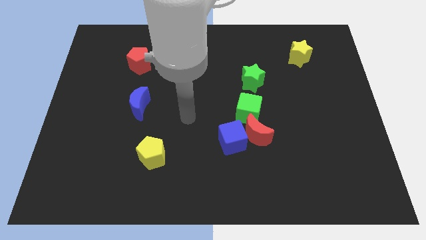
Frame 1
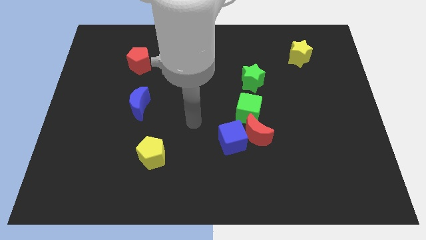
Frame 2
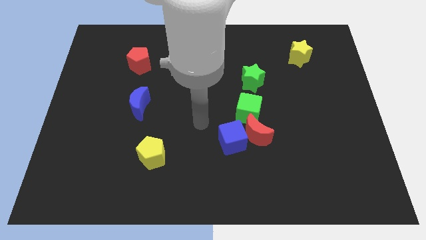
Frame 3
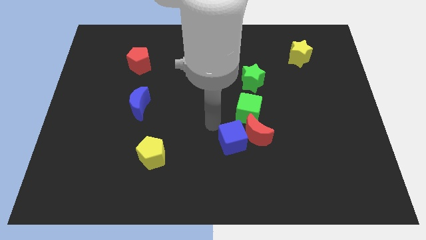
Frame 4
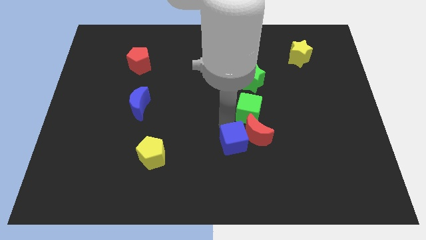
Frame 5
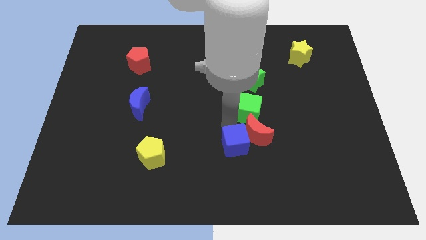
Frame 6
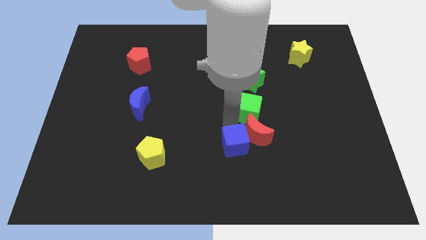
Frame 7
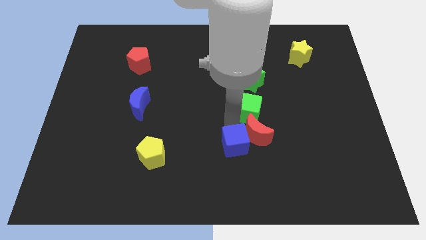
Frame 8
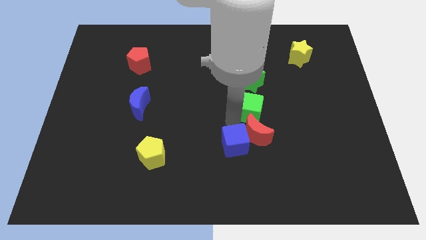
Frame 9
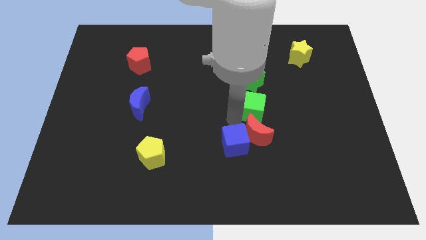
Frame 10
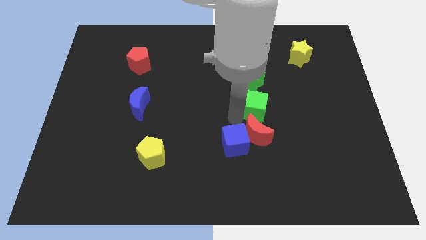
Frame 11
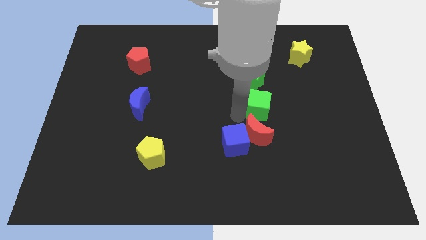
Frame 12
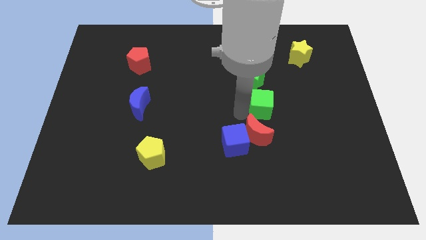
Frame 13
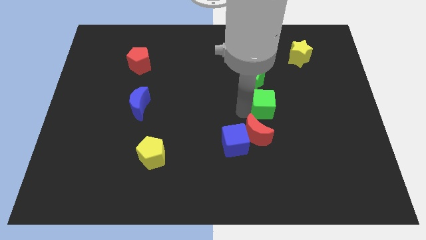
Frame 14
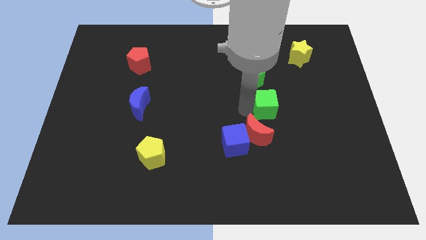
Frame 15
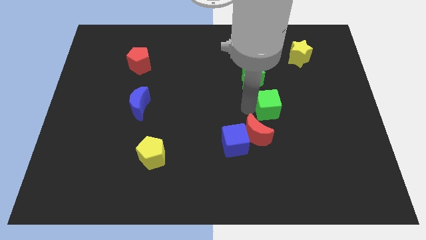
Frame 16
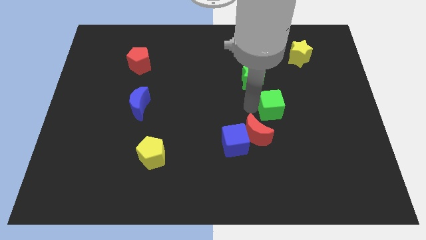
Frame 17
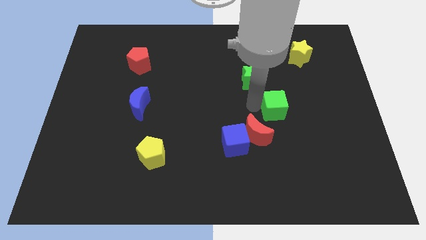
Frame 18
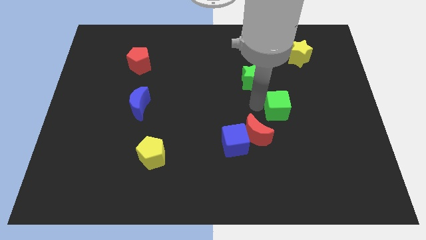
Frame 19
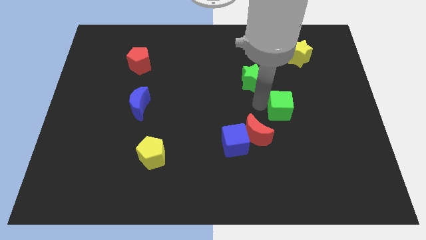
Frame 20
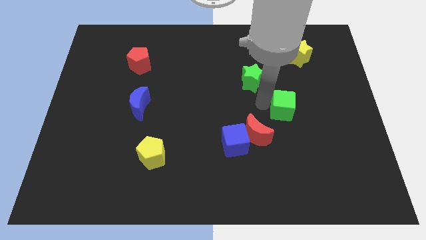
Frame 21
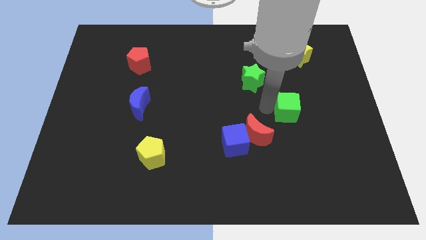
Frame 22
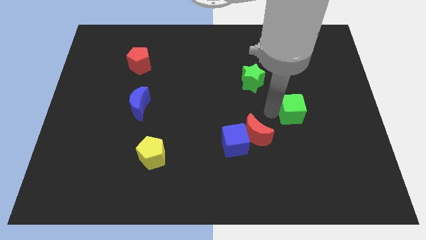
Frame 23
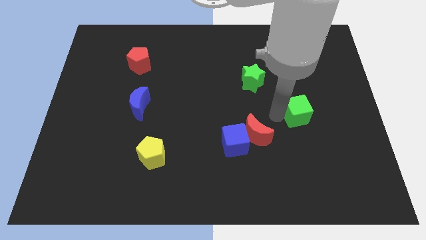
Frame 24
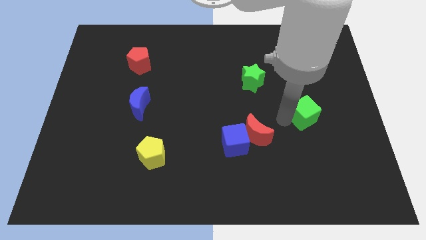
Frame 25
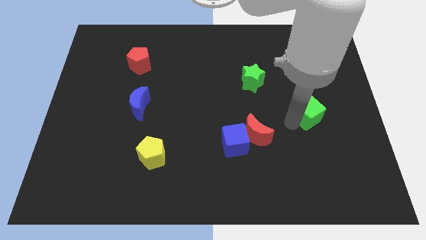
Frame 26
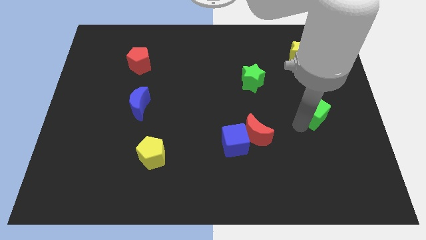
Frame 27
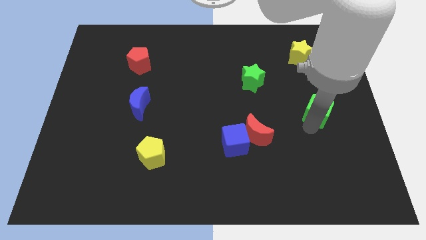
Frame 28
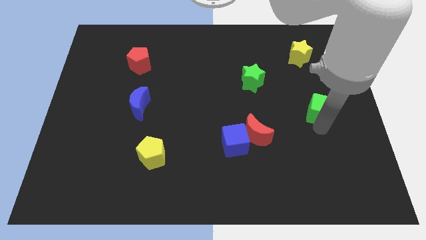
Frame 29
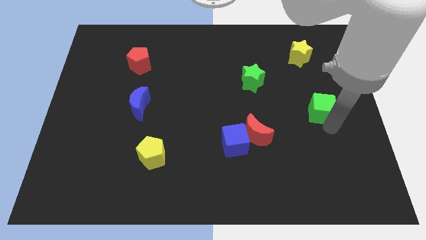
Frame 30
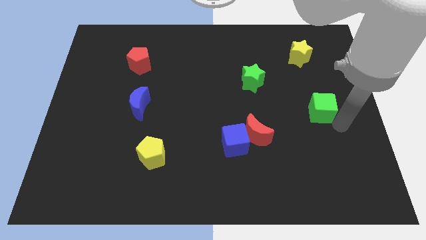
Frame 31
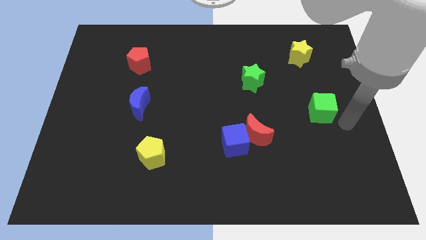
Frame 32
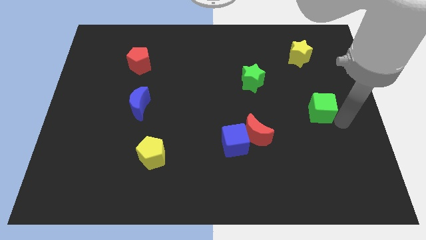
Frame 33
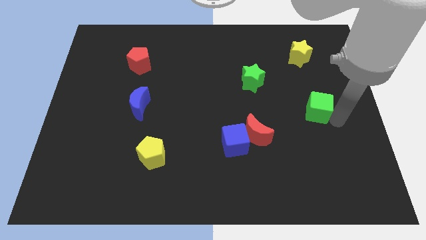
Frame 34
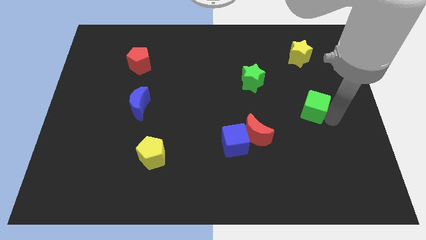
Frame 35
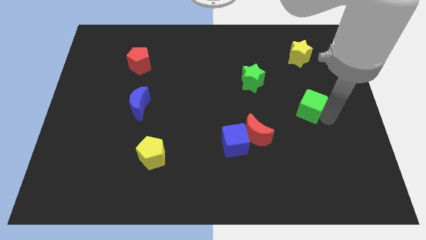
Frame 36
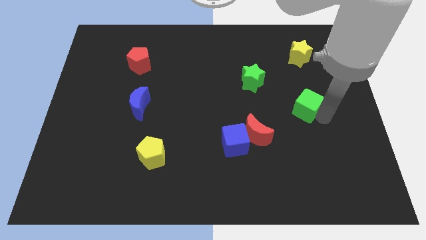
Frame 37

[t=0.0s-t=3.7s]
push the green cube diagonally up and to the right somewhat

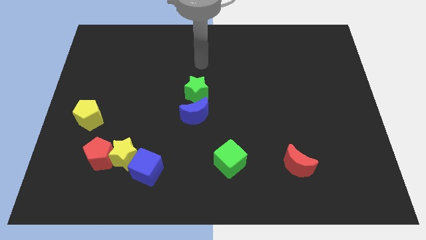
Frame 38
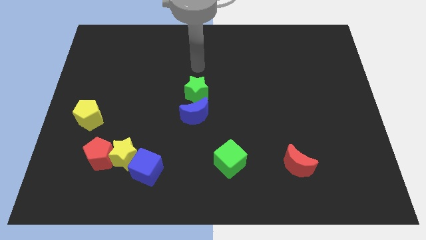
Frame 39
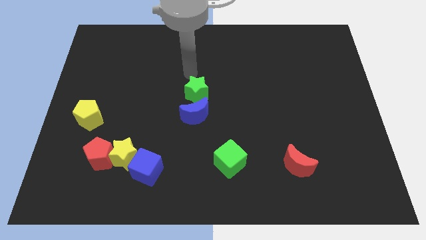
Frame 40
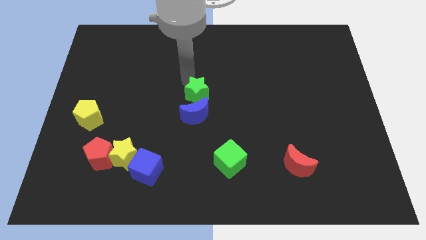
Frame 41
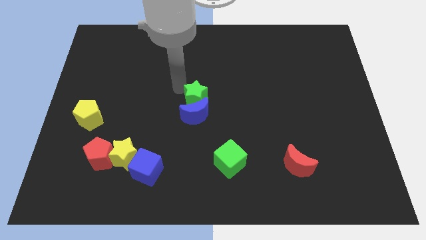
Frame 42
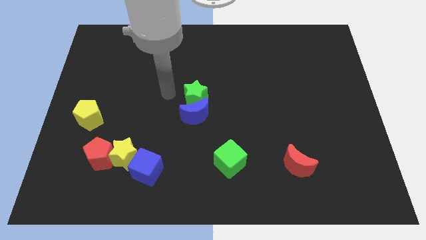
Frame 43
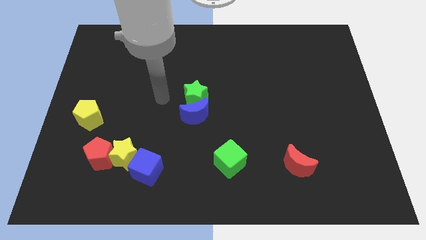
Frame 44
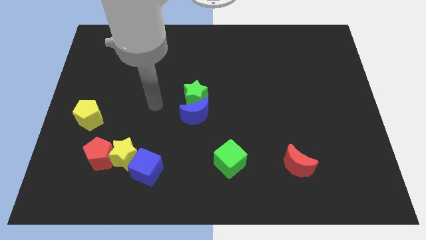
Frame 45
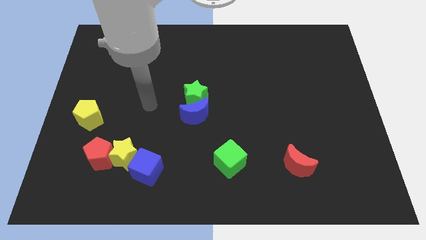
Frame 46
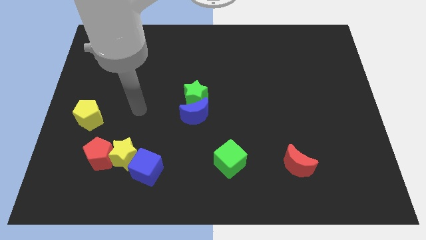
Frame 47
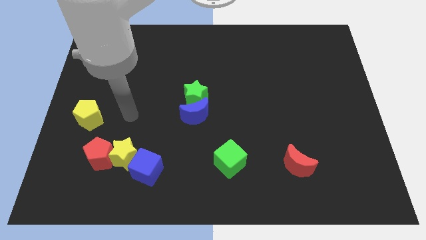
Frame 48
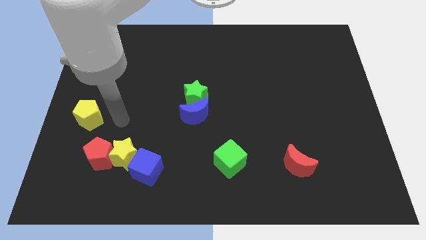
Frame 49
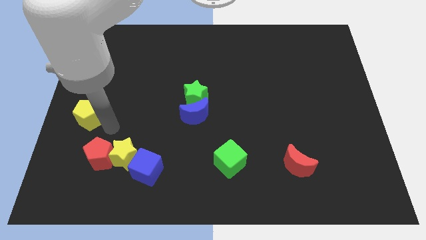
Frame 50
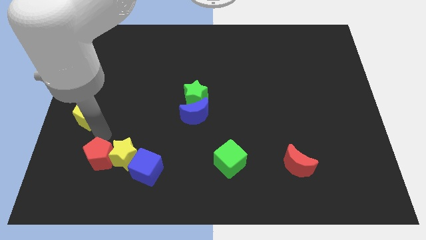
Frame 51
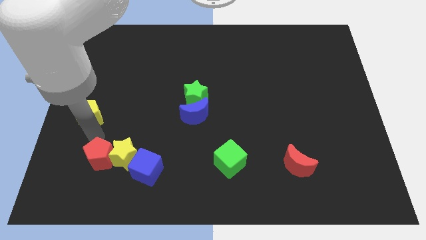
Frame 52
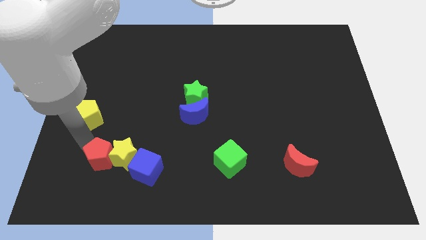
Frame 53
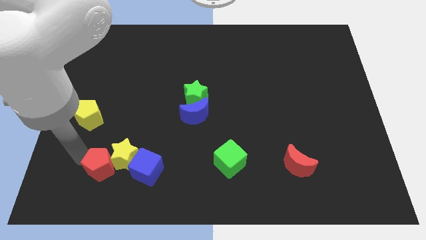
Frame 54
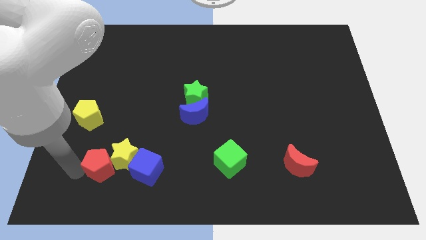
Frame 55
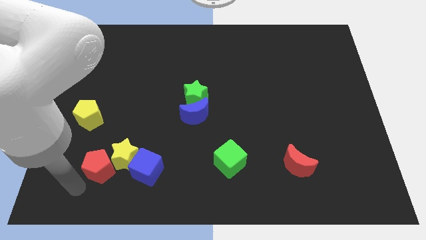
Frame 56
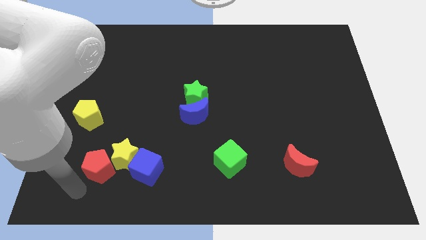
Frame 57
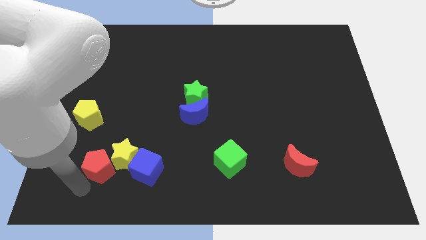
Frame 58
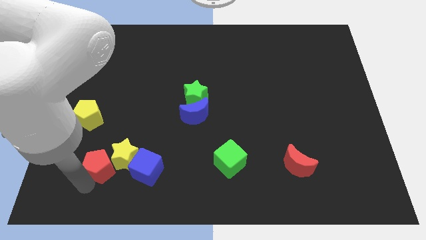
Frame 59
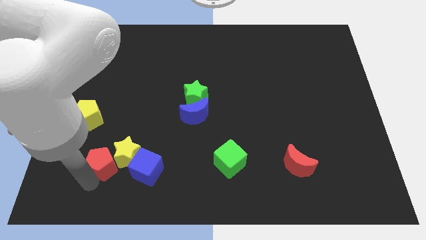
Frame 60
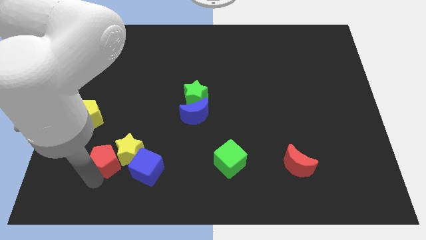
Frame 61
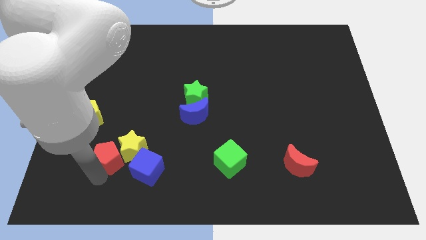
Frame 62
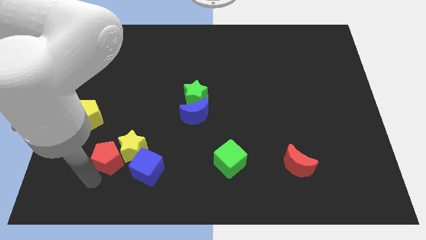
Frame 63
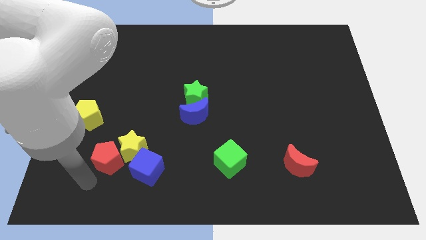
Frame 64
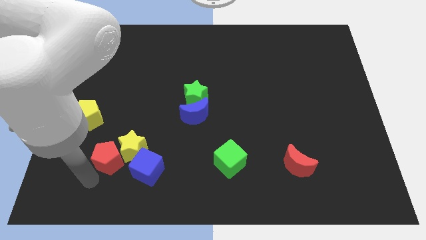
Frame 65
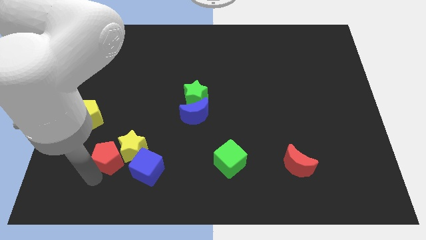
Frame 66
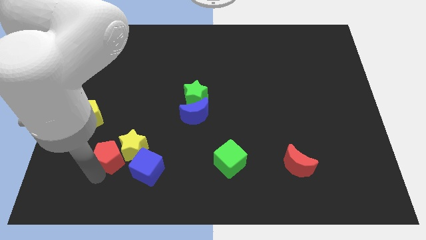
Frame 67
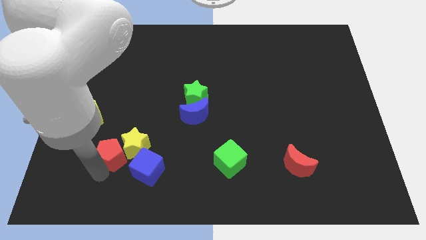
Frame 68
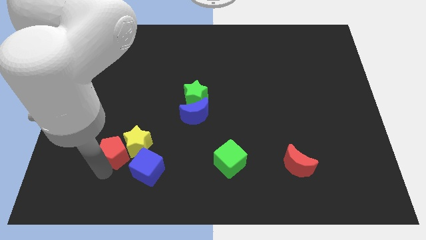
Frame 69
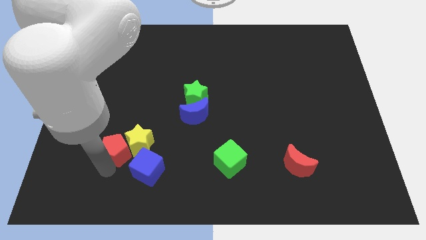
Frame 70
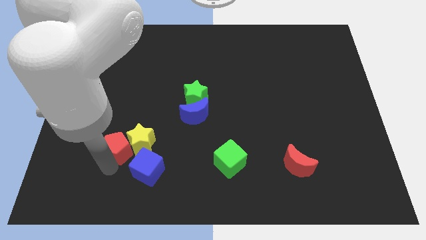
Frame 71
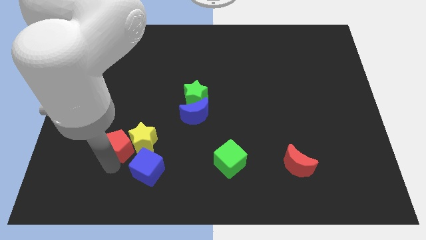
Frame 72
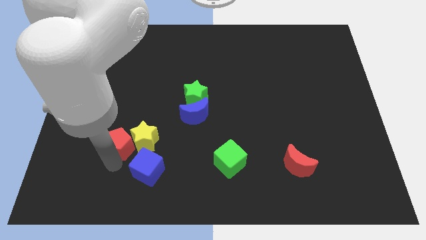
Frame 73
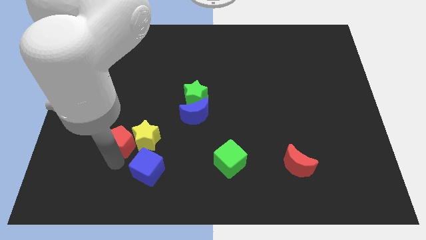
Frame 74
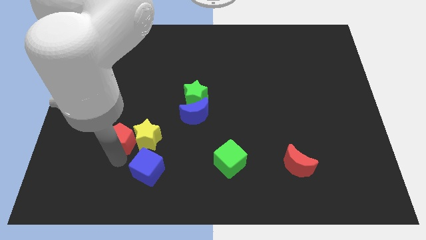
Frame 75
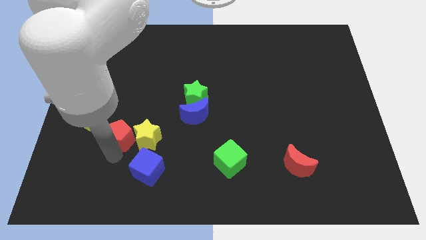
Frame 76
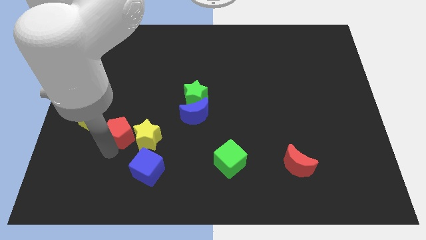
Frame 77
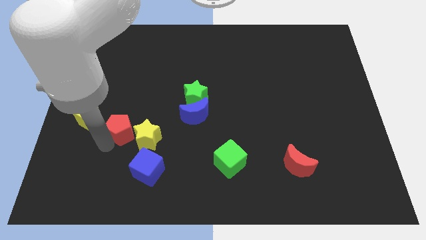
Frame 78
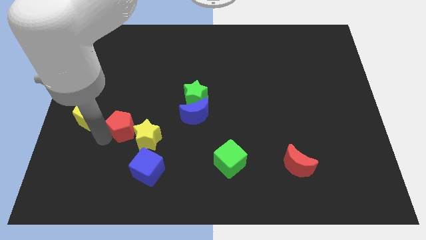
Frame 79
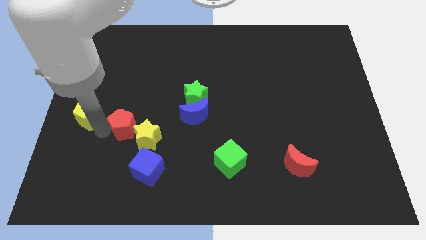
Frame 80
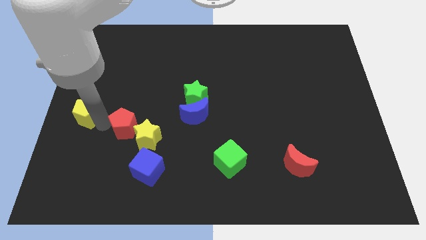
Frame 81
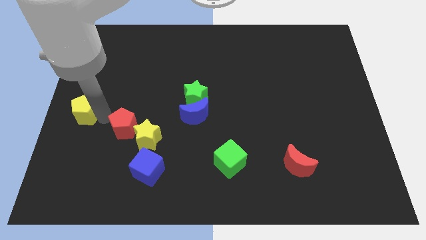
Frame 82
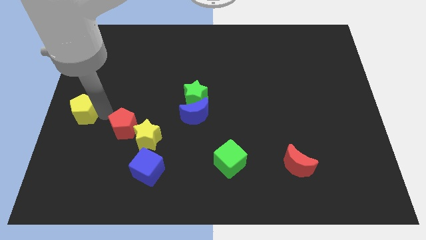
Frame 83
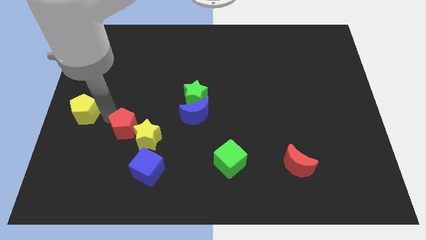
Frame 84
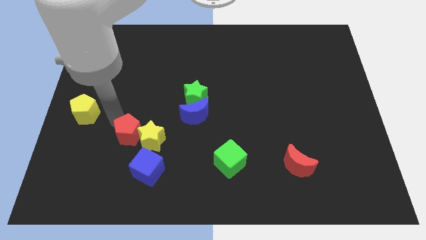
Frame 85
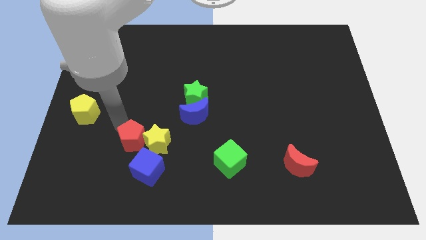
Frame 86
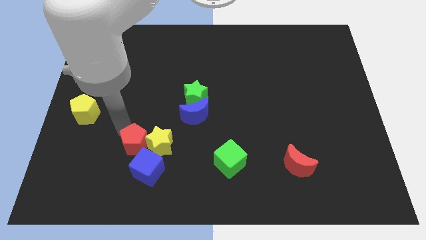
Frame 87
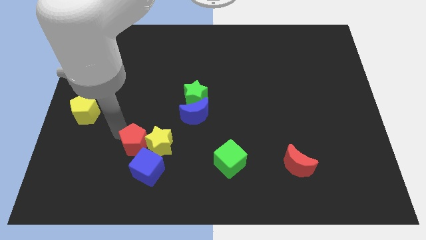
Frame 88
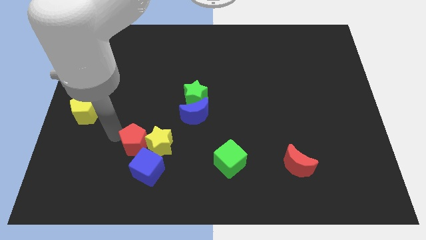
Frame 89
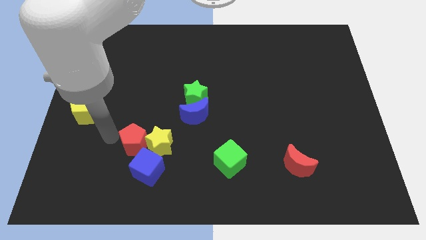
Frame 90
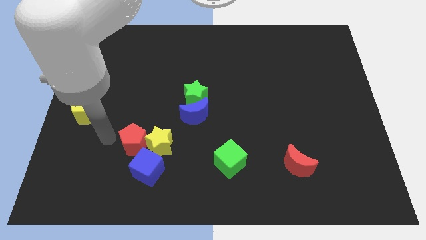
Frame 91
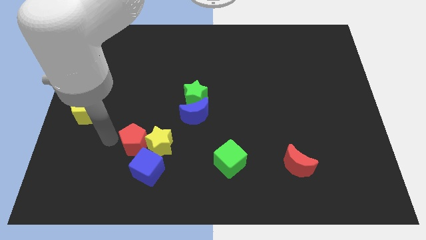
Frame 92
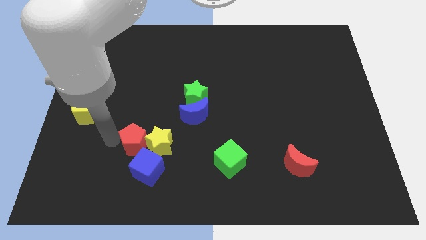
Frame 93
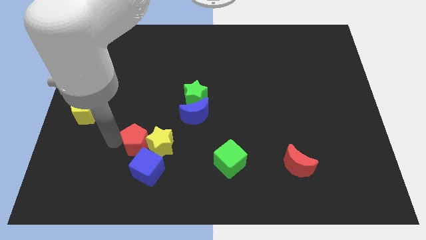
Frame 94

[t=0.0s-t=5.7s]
slightly push the red pentagon to the right
